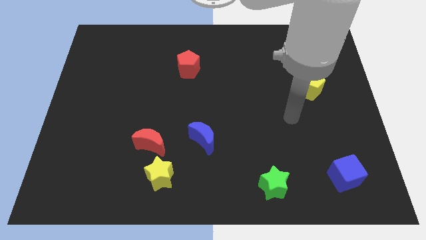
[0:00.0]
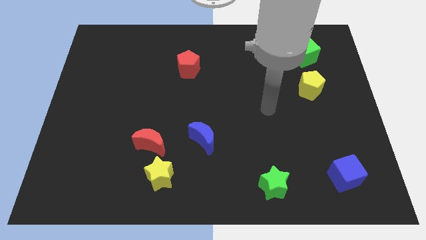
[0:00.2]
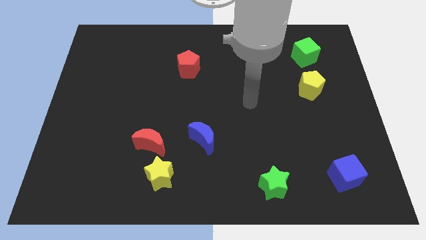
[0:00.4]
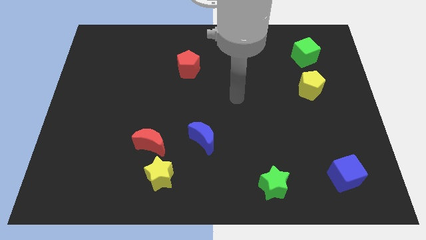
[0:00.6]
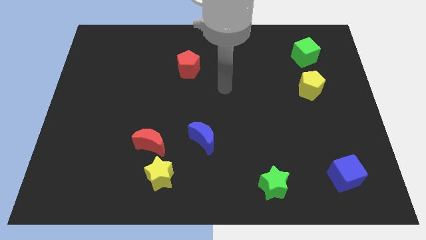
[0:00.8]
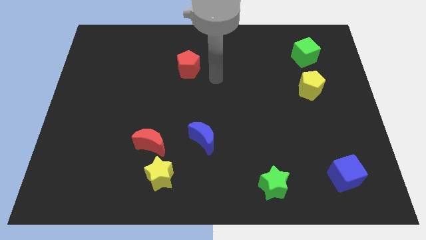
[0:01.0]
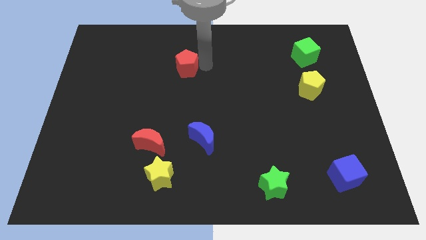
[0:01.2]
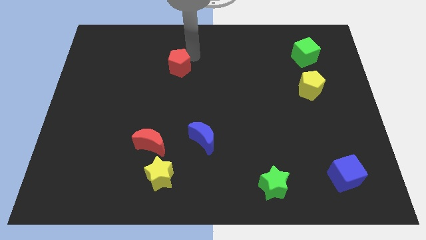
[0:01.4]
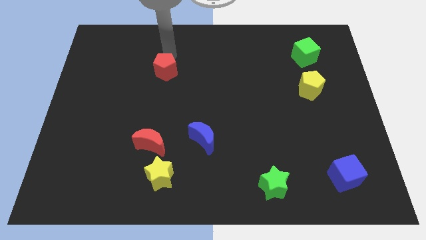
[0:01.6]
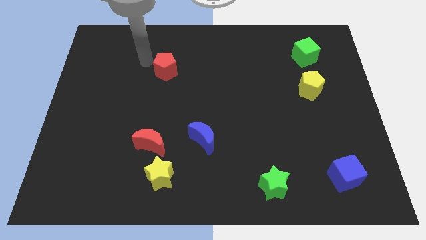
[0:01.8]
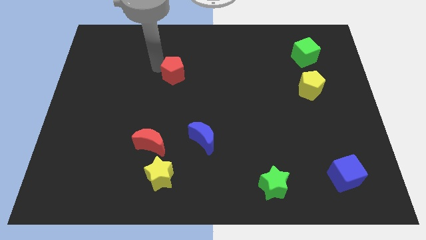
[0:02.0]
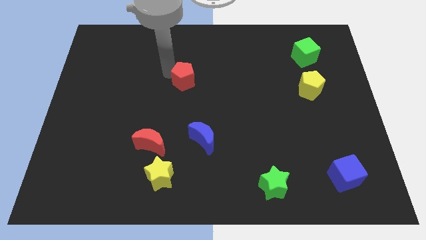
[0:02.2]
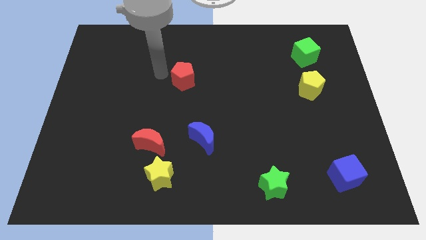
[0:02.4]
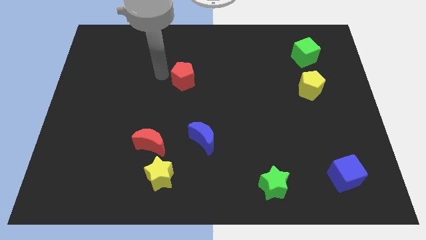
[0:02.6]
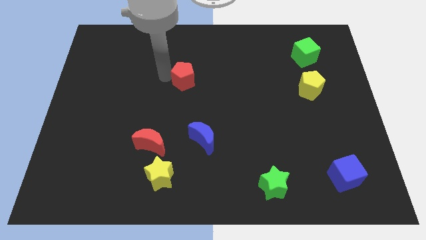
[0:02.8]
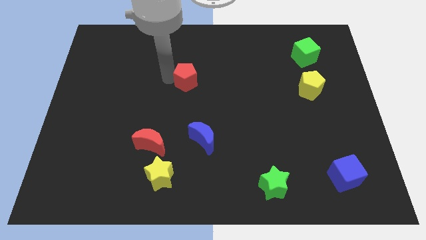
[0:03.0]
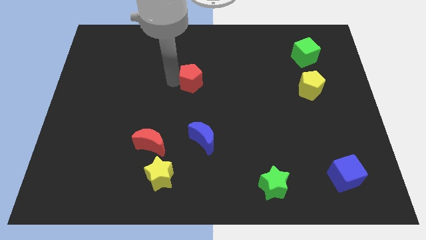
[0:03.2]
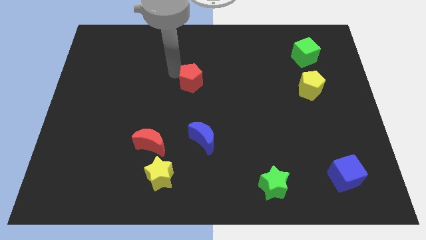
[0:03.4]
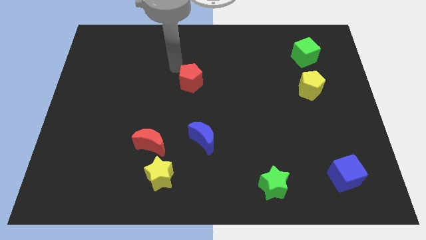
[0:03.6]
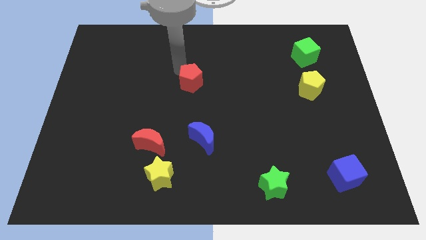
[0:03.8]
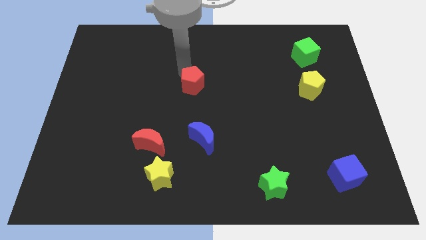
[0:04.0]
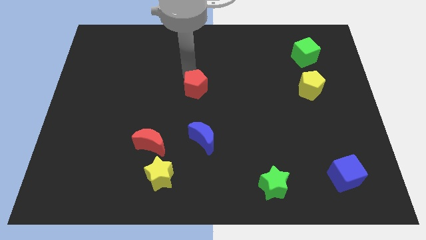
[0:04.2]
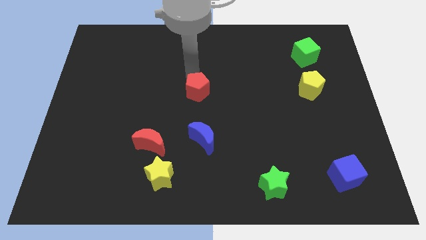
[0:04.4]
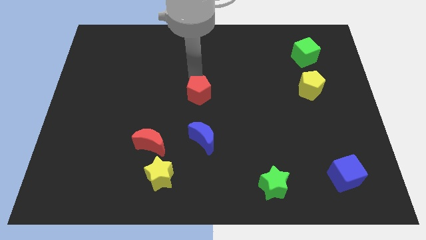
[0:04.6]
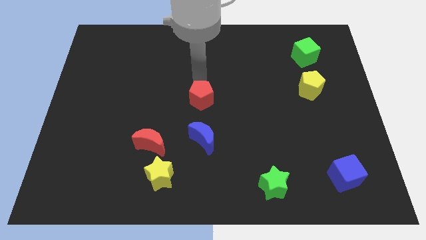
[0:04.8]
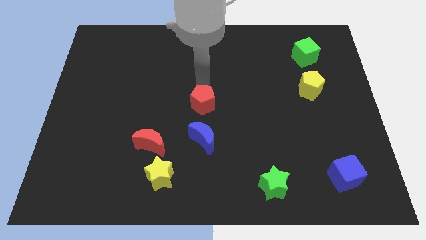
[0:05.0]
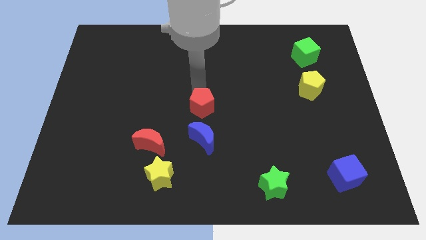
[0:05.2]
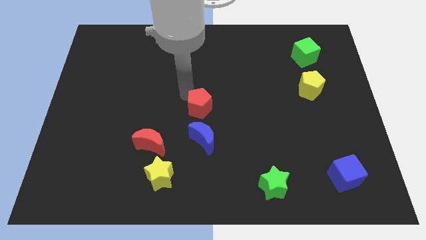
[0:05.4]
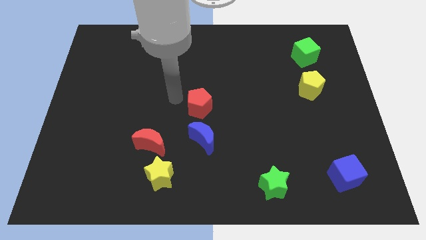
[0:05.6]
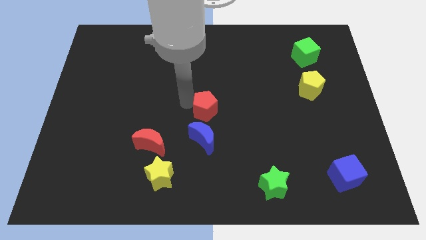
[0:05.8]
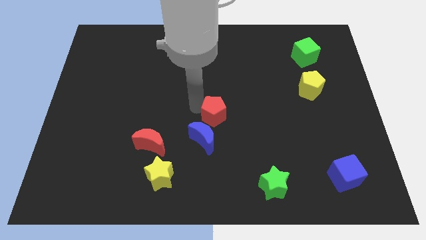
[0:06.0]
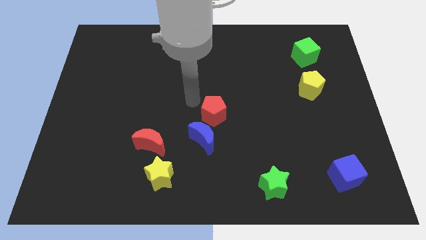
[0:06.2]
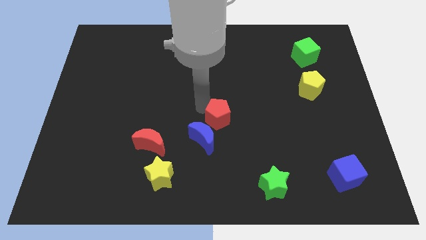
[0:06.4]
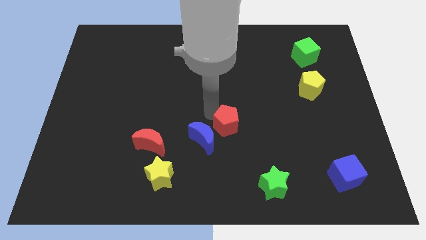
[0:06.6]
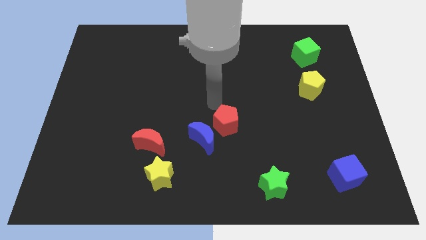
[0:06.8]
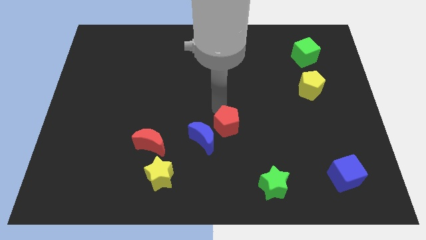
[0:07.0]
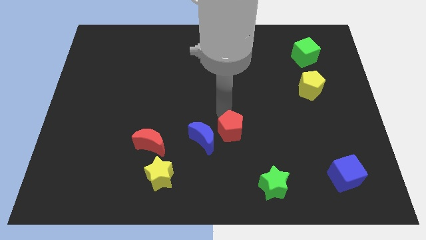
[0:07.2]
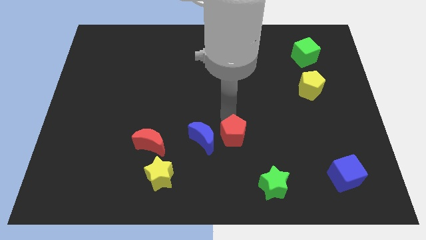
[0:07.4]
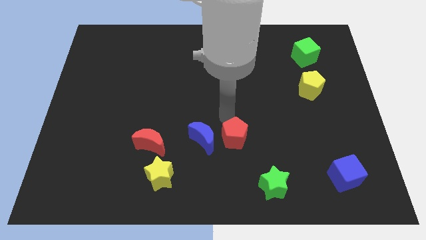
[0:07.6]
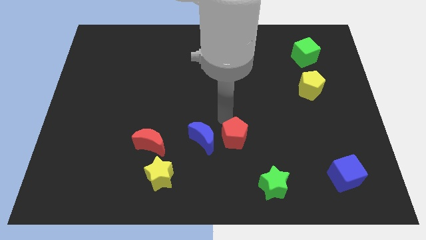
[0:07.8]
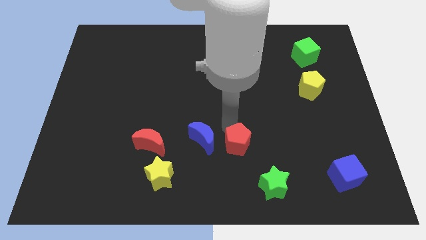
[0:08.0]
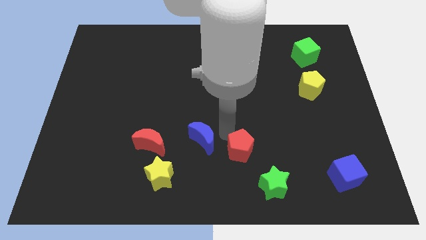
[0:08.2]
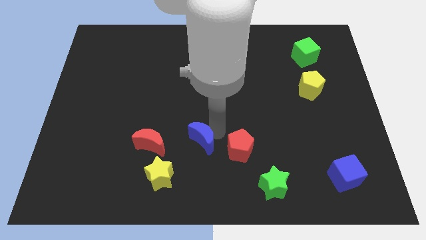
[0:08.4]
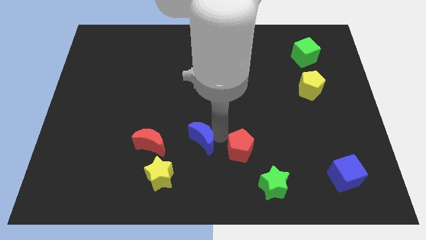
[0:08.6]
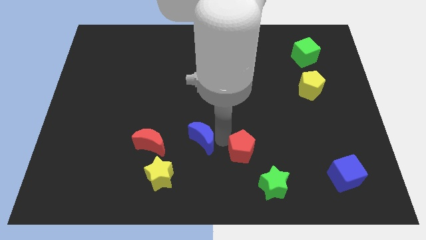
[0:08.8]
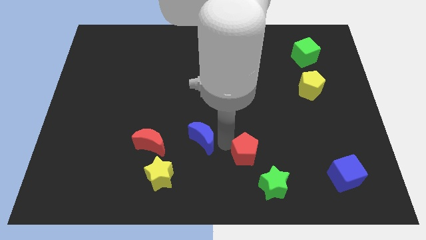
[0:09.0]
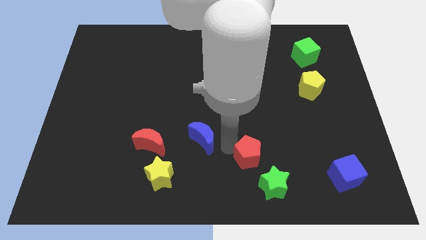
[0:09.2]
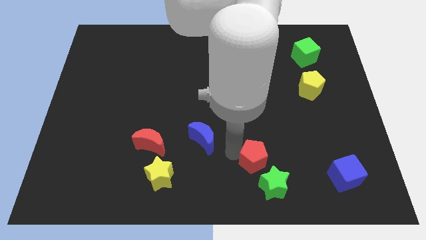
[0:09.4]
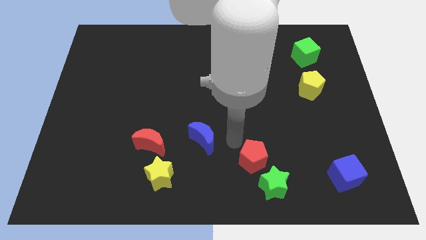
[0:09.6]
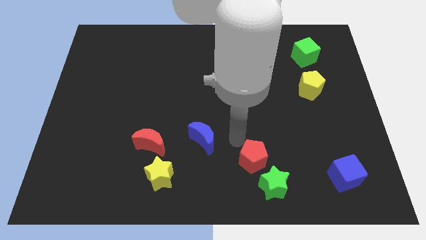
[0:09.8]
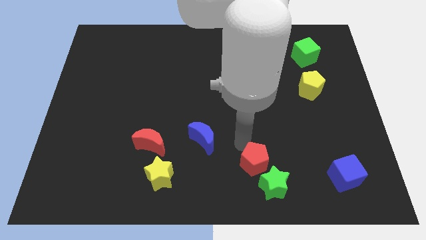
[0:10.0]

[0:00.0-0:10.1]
move the red pentagon next to the green star

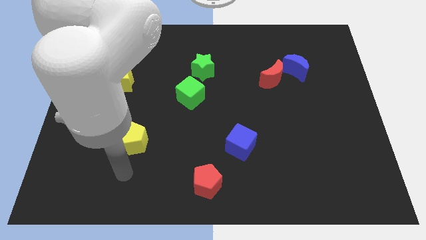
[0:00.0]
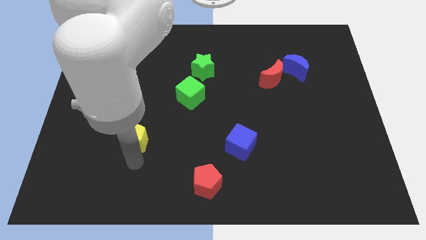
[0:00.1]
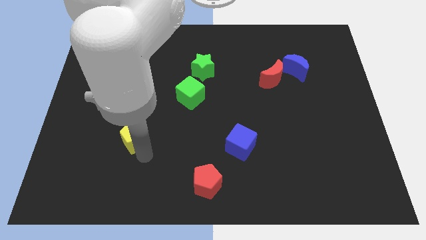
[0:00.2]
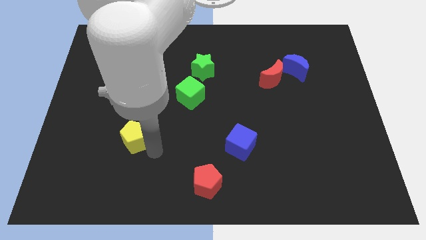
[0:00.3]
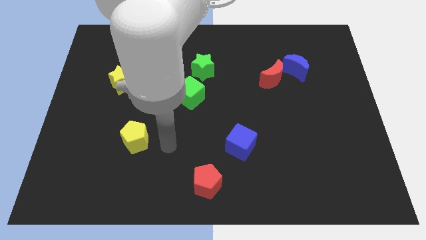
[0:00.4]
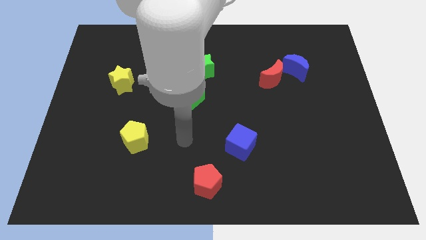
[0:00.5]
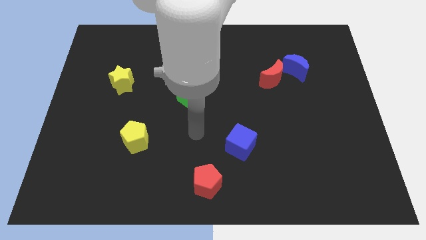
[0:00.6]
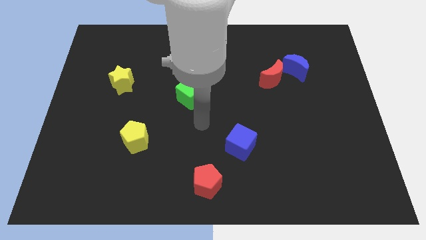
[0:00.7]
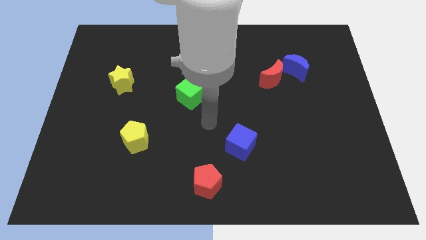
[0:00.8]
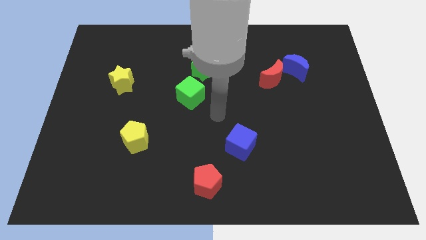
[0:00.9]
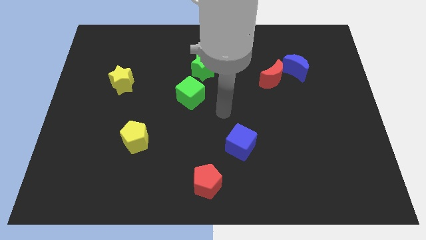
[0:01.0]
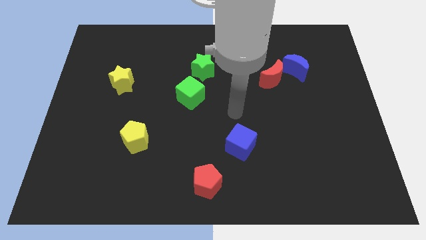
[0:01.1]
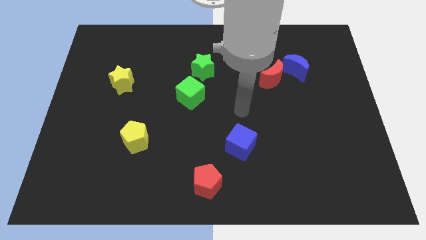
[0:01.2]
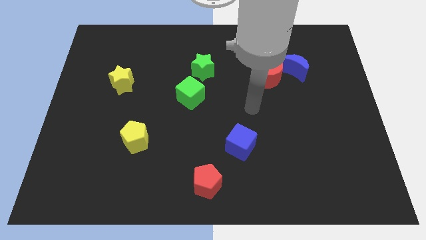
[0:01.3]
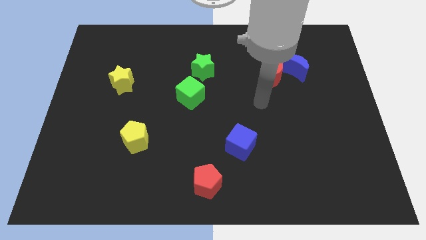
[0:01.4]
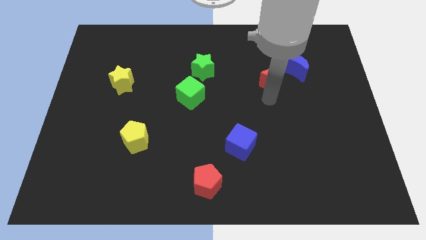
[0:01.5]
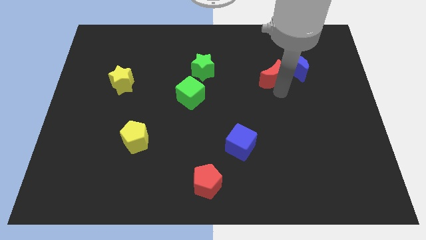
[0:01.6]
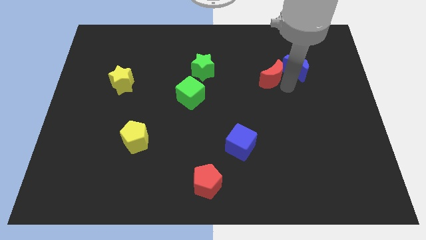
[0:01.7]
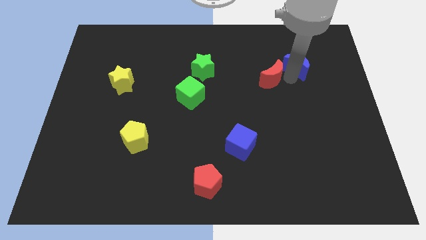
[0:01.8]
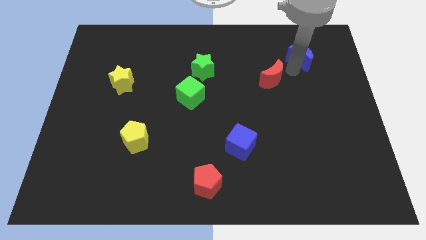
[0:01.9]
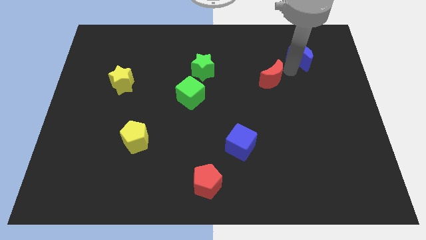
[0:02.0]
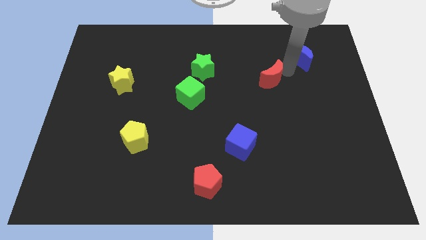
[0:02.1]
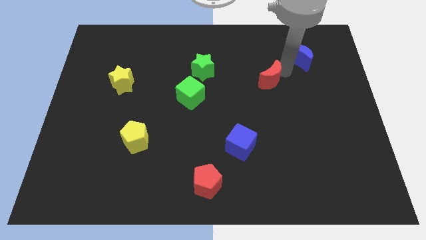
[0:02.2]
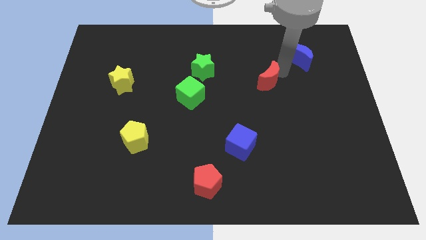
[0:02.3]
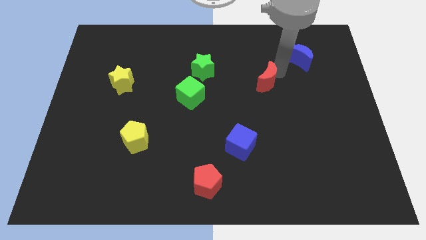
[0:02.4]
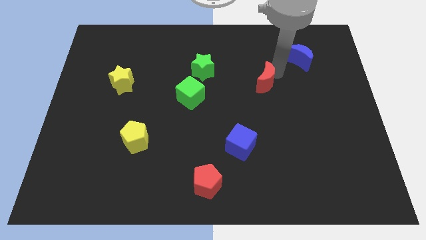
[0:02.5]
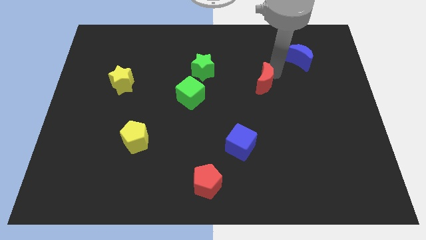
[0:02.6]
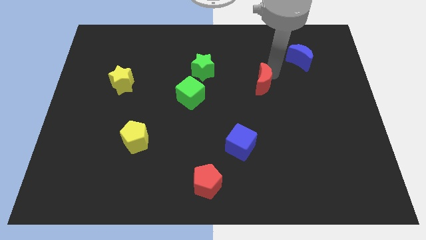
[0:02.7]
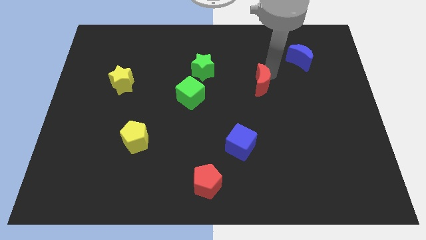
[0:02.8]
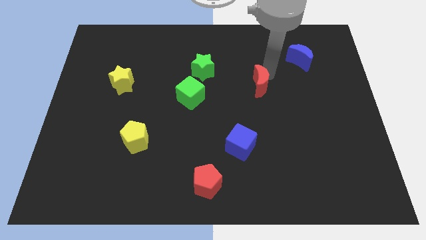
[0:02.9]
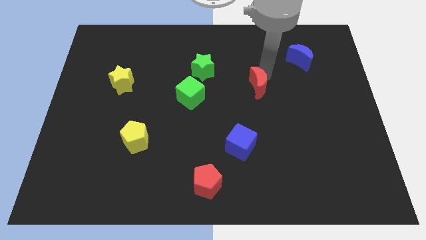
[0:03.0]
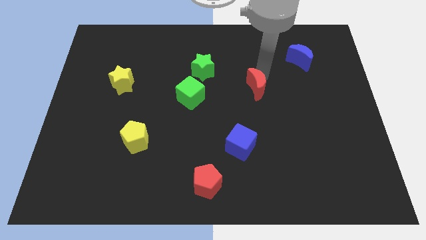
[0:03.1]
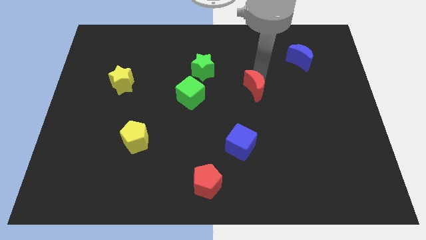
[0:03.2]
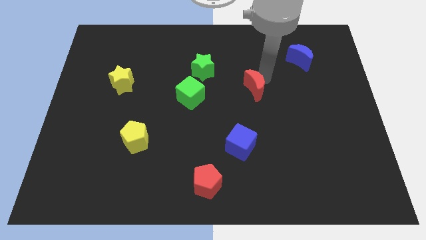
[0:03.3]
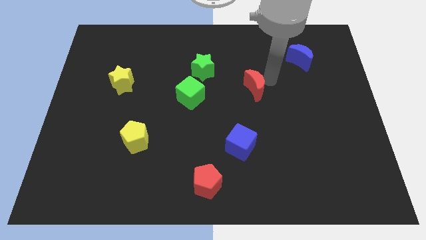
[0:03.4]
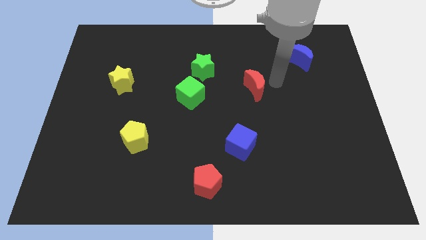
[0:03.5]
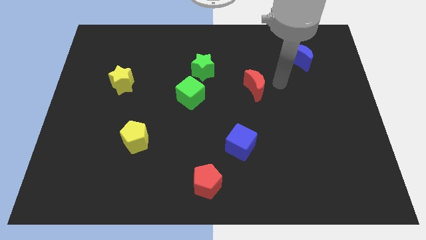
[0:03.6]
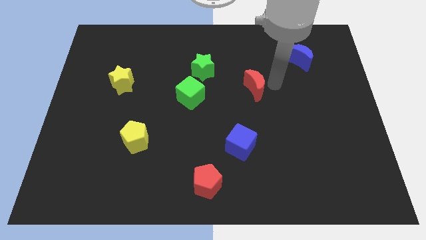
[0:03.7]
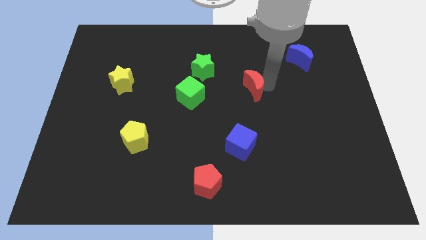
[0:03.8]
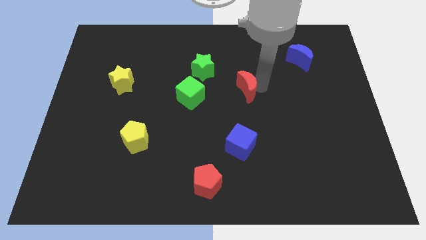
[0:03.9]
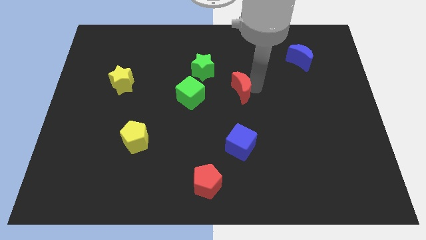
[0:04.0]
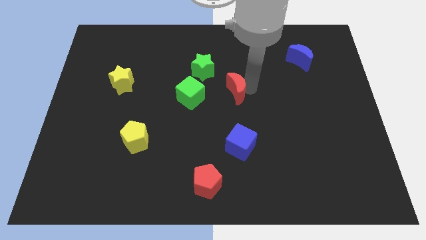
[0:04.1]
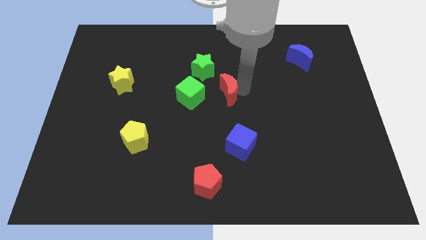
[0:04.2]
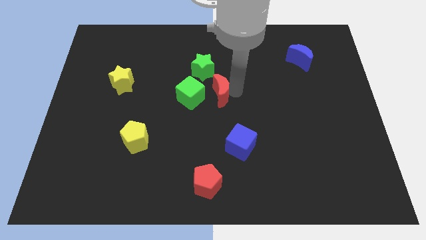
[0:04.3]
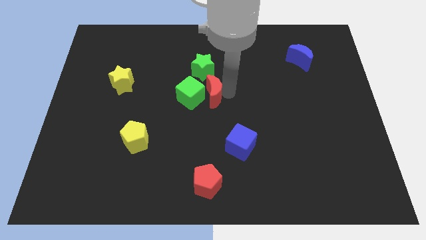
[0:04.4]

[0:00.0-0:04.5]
slide the red moon to the green cube
